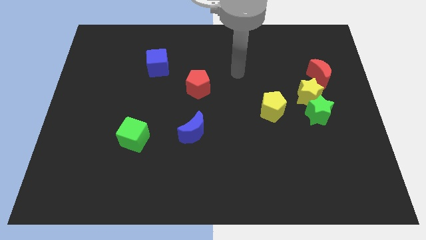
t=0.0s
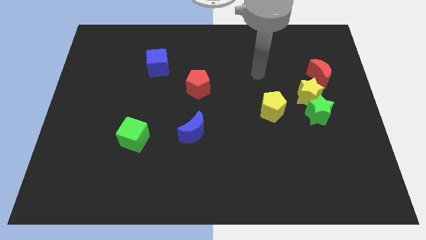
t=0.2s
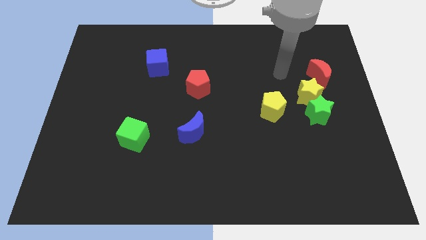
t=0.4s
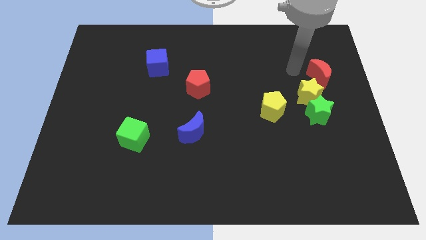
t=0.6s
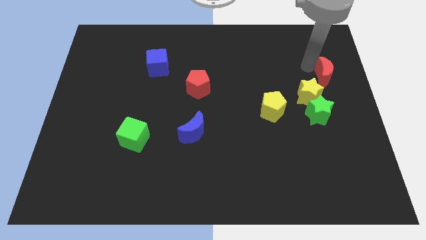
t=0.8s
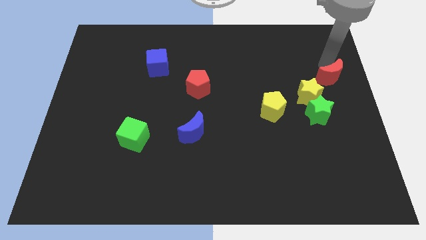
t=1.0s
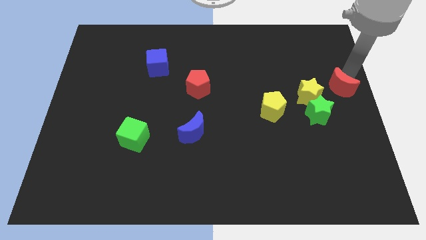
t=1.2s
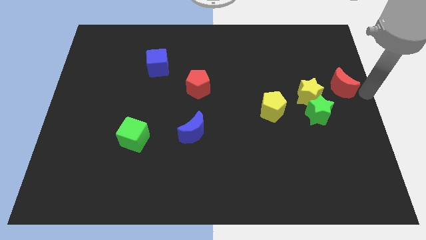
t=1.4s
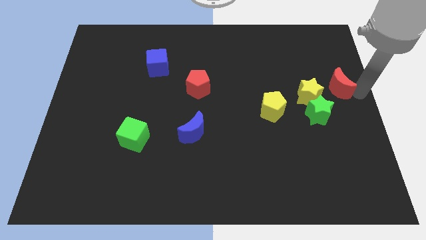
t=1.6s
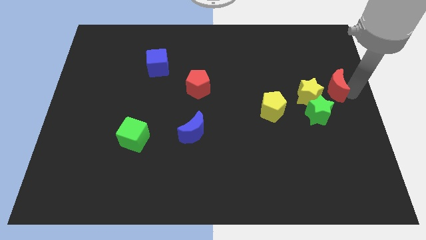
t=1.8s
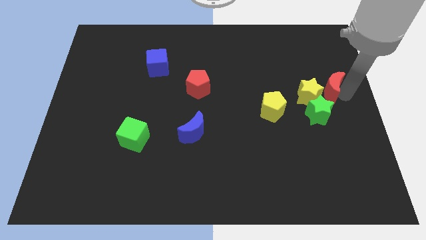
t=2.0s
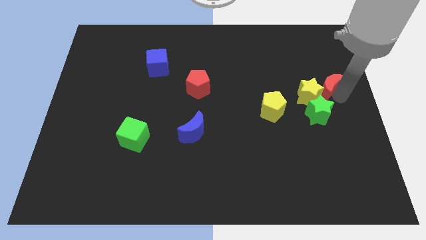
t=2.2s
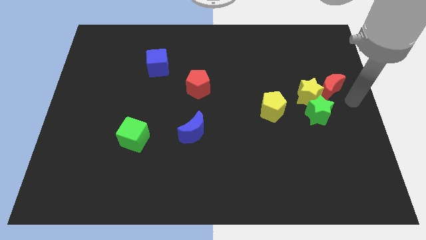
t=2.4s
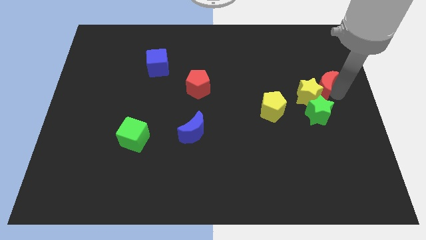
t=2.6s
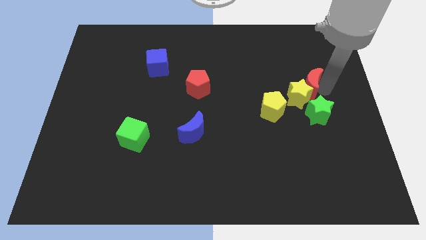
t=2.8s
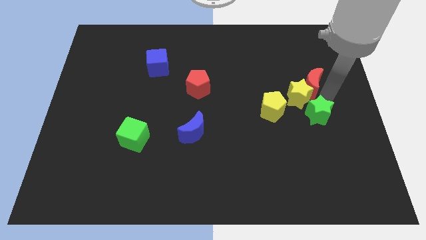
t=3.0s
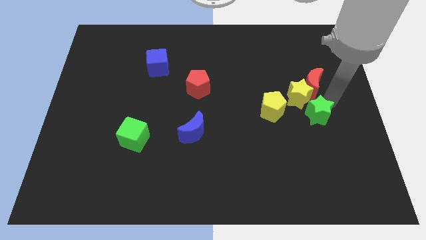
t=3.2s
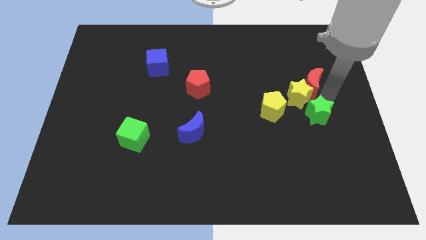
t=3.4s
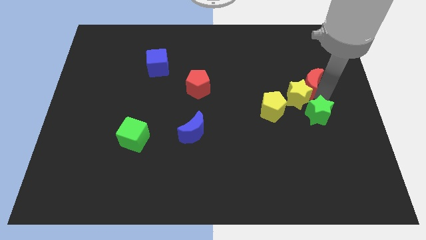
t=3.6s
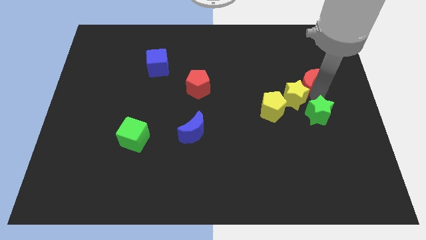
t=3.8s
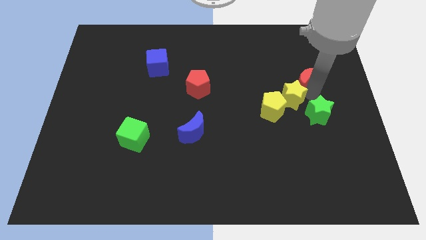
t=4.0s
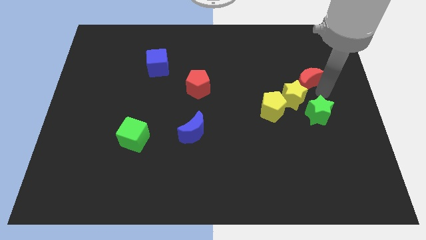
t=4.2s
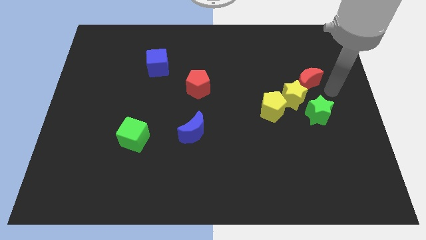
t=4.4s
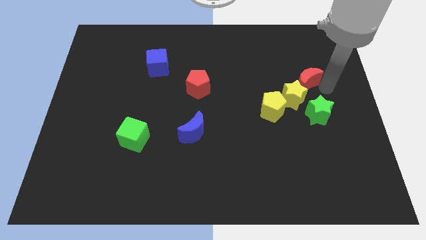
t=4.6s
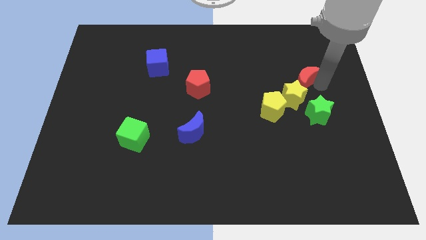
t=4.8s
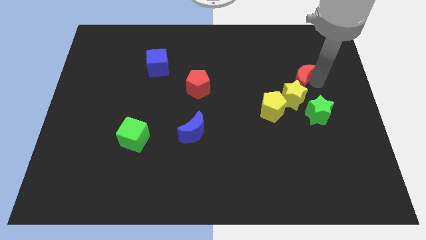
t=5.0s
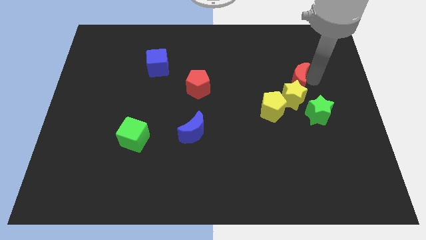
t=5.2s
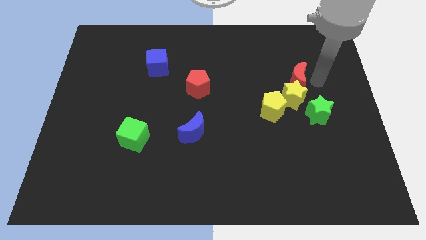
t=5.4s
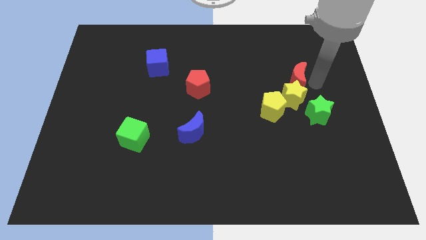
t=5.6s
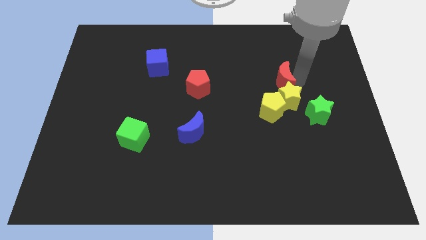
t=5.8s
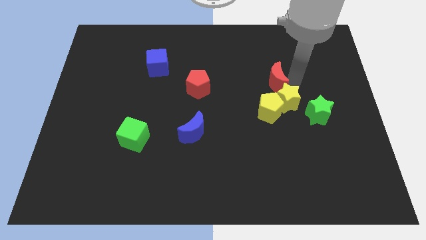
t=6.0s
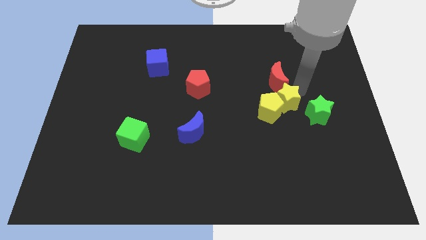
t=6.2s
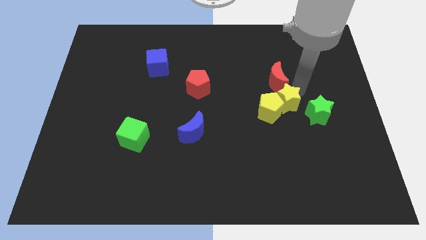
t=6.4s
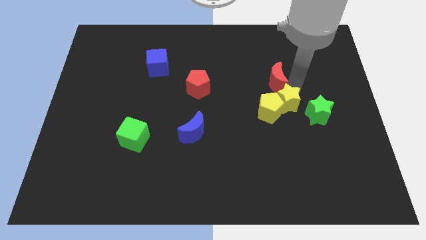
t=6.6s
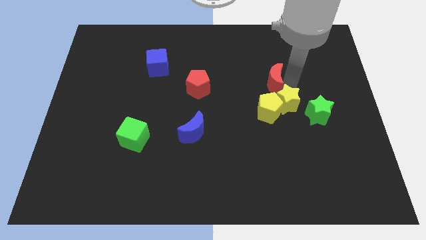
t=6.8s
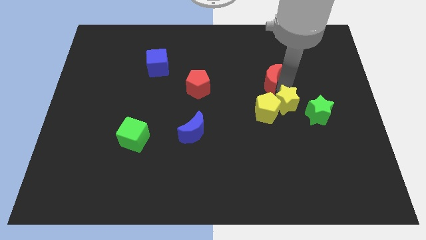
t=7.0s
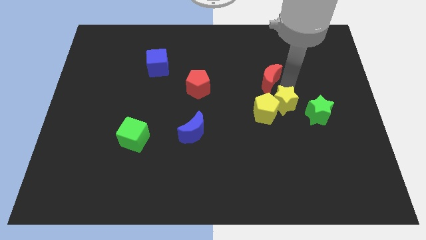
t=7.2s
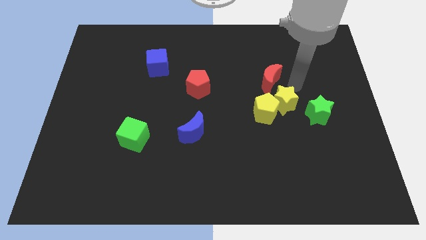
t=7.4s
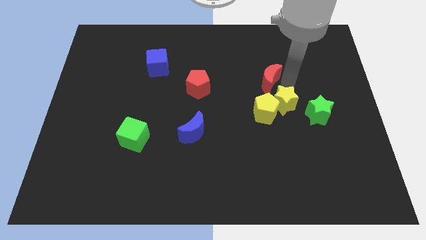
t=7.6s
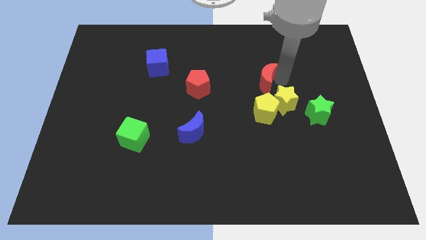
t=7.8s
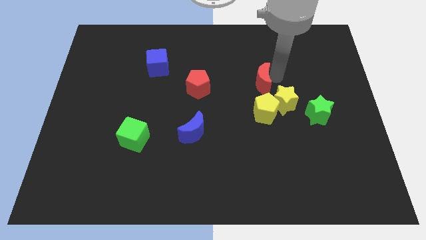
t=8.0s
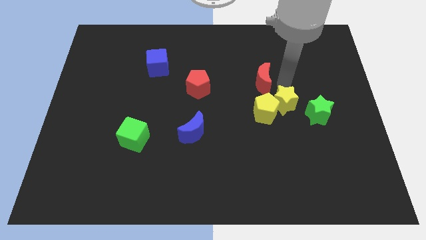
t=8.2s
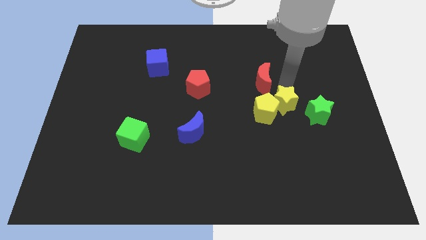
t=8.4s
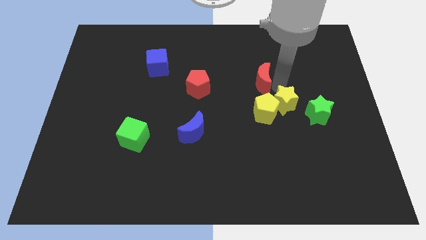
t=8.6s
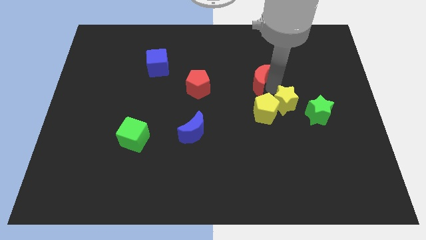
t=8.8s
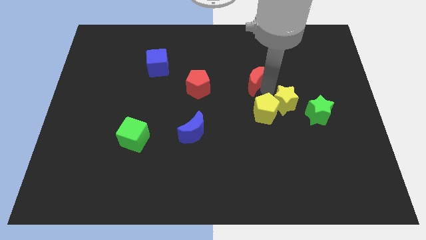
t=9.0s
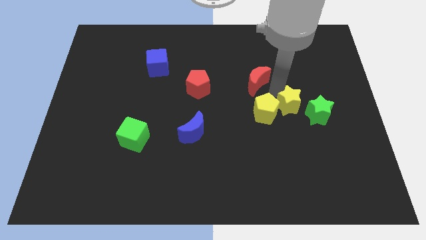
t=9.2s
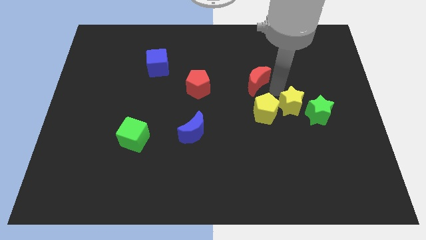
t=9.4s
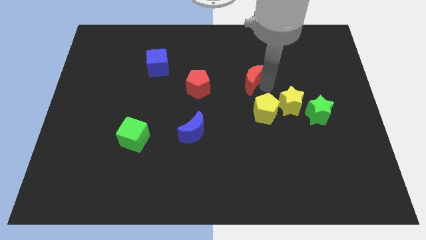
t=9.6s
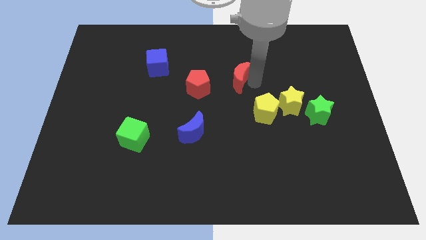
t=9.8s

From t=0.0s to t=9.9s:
move the red moon to the left

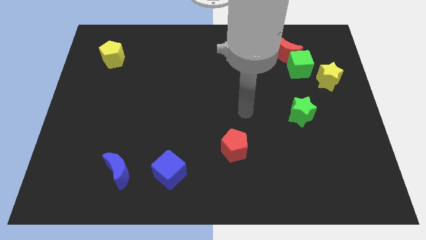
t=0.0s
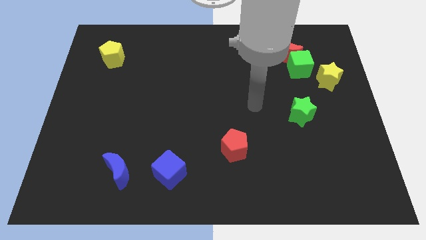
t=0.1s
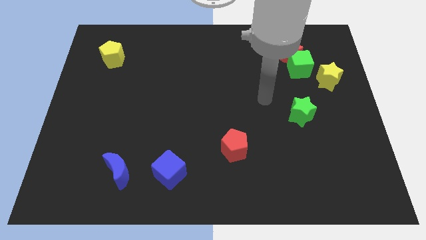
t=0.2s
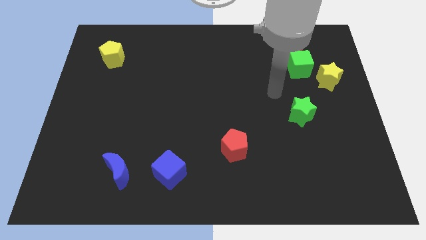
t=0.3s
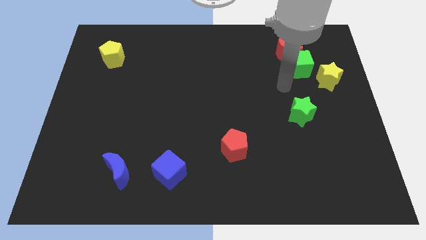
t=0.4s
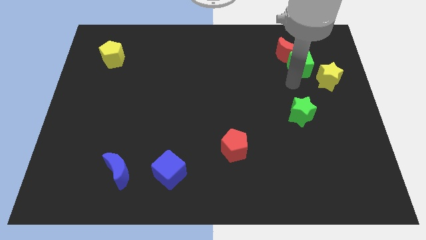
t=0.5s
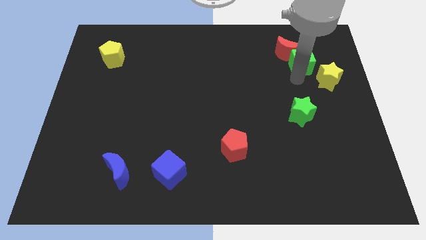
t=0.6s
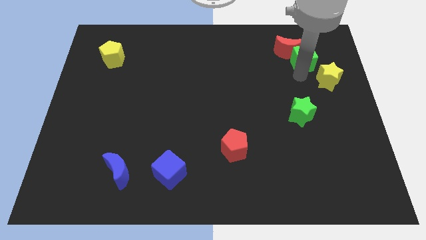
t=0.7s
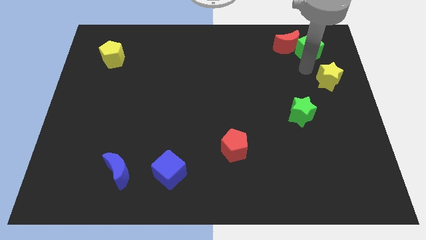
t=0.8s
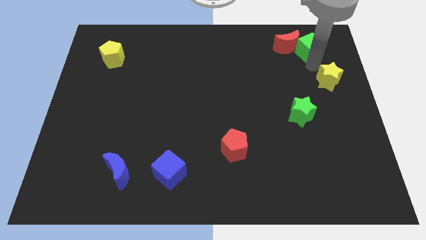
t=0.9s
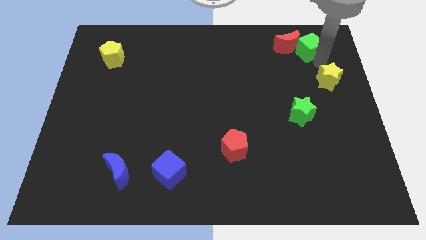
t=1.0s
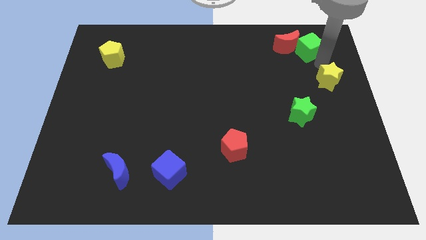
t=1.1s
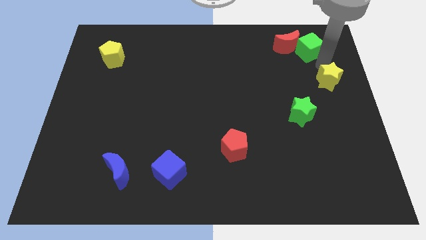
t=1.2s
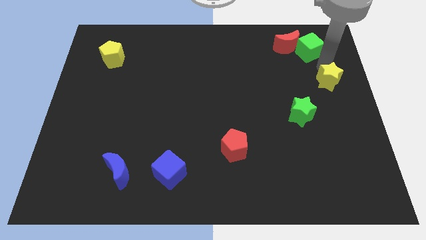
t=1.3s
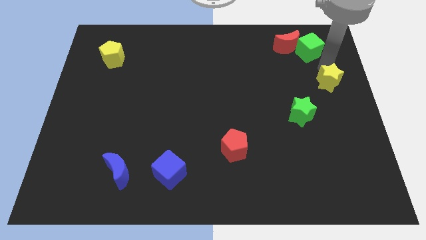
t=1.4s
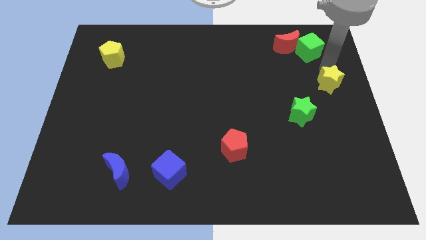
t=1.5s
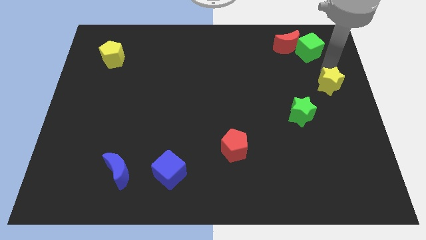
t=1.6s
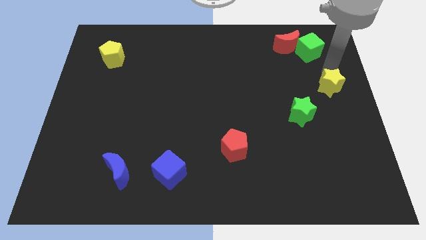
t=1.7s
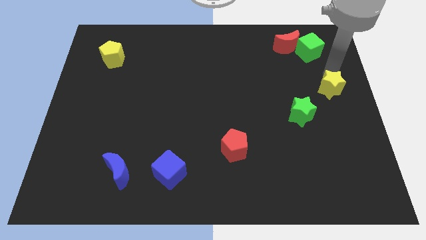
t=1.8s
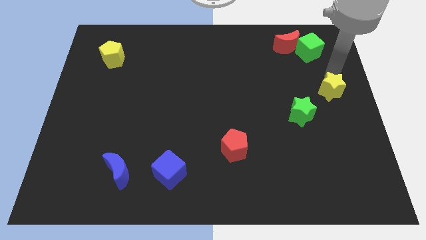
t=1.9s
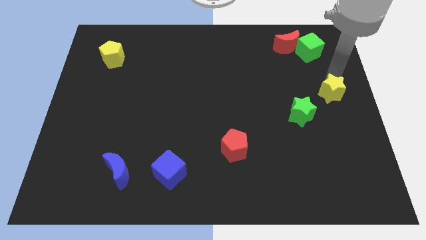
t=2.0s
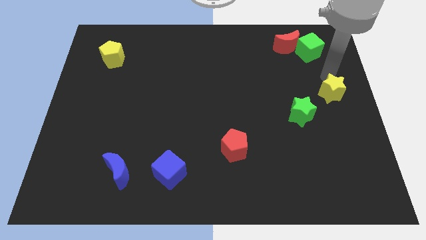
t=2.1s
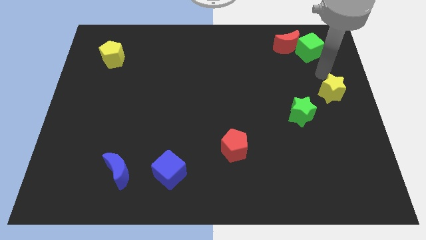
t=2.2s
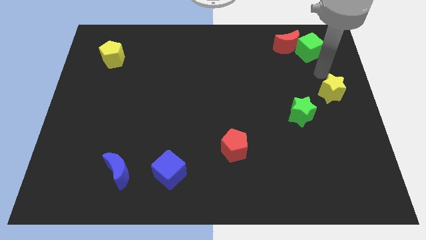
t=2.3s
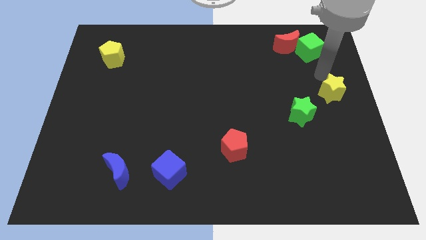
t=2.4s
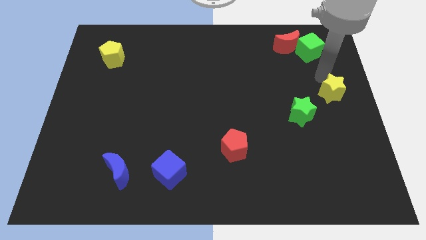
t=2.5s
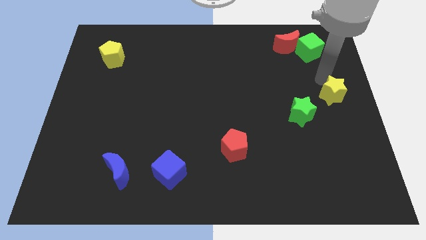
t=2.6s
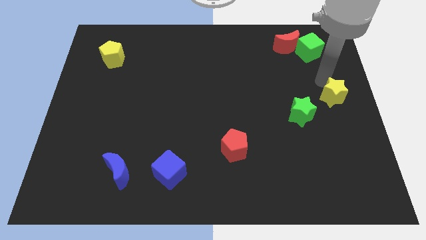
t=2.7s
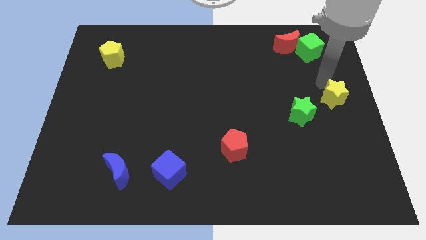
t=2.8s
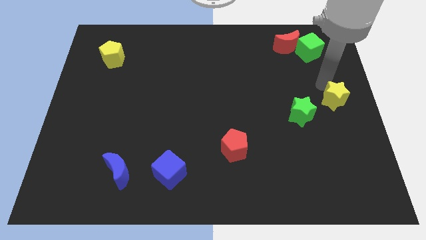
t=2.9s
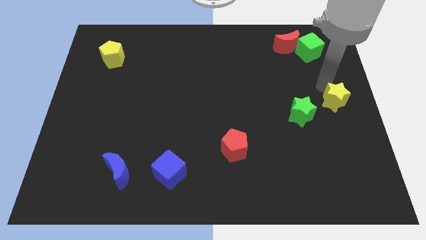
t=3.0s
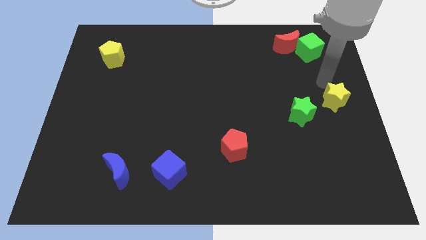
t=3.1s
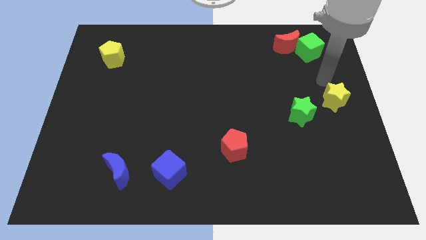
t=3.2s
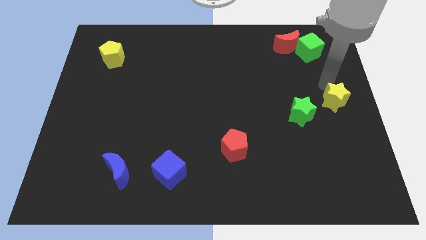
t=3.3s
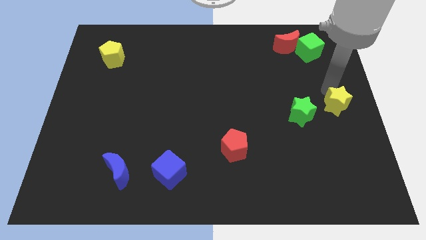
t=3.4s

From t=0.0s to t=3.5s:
slightly push the yellow star down
